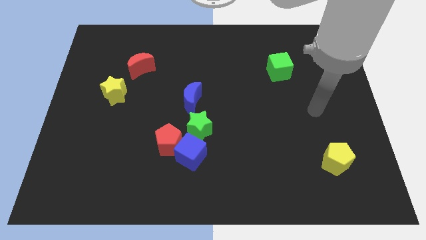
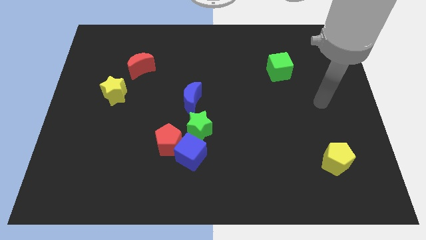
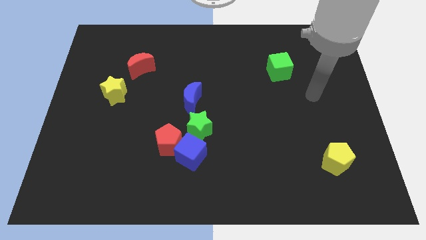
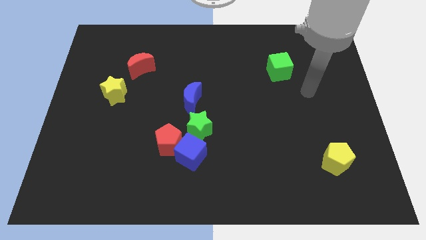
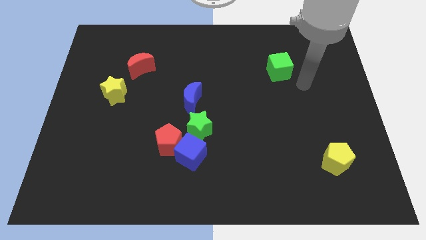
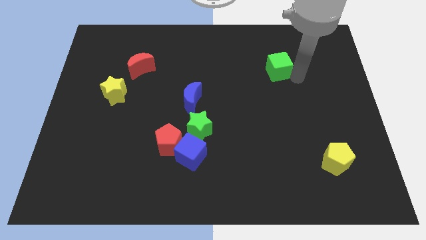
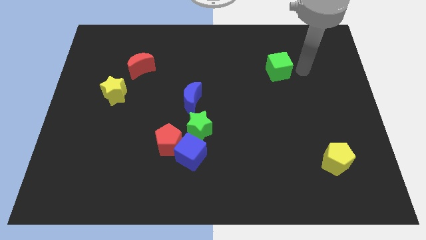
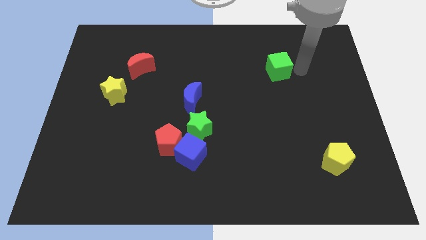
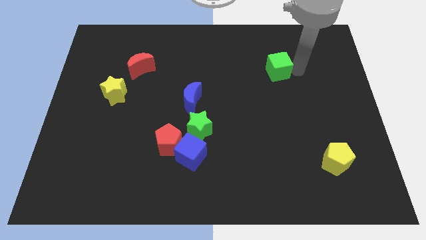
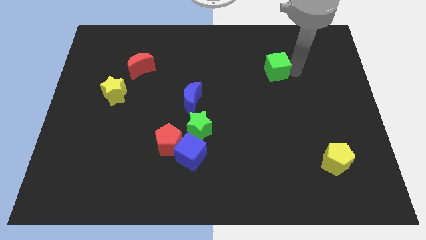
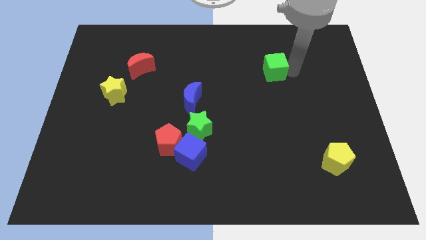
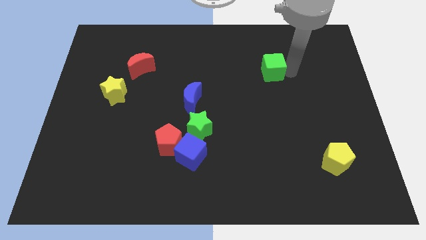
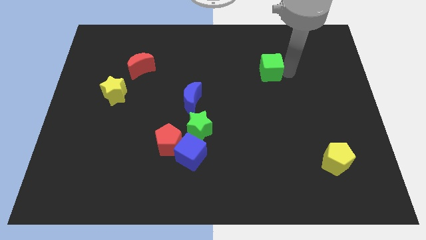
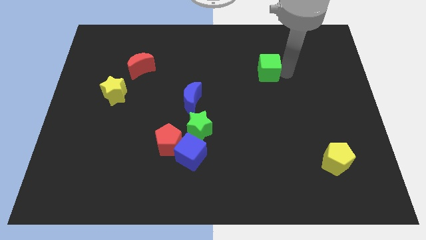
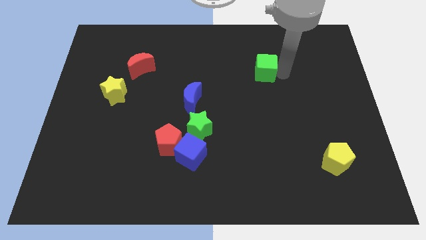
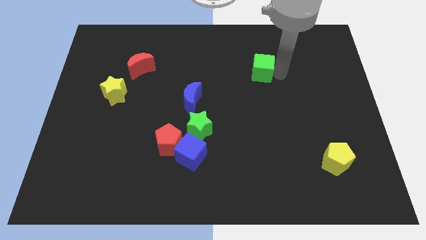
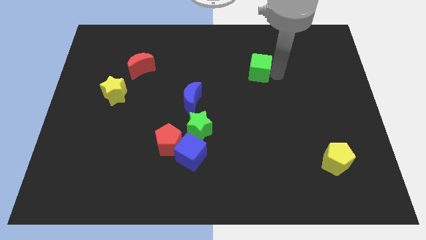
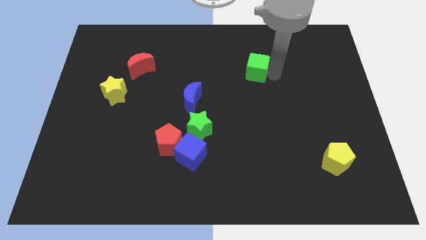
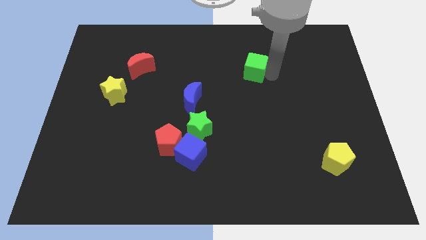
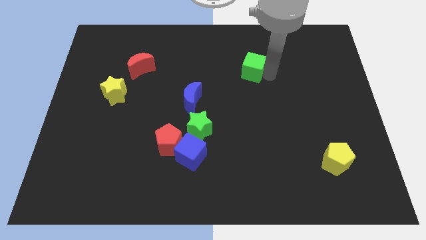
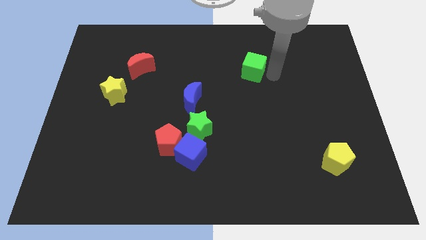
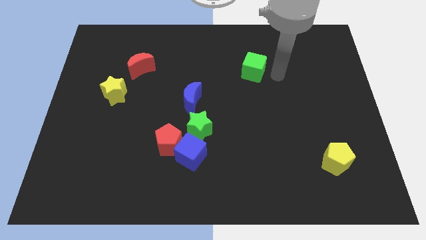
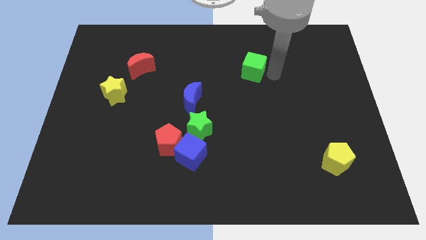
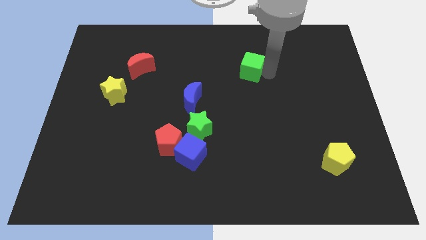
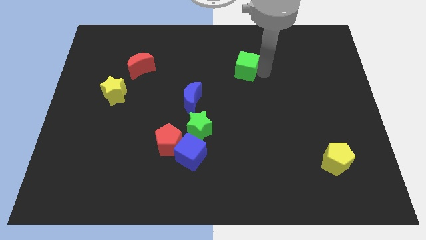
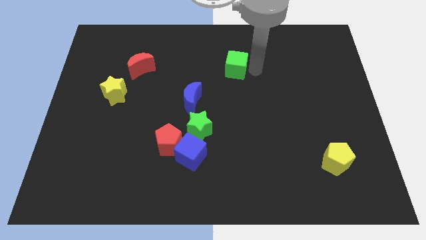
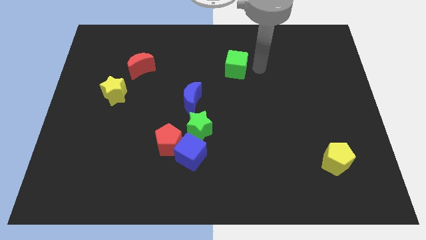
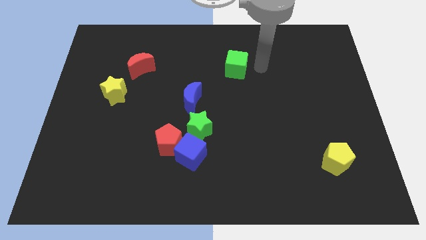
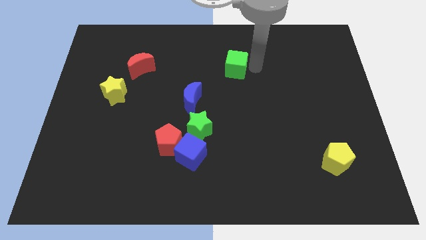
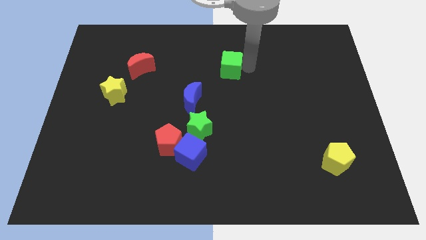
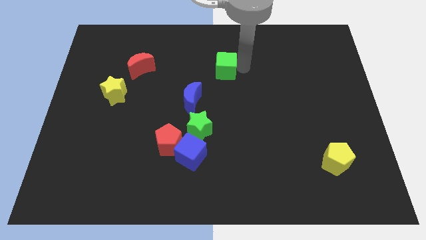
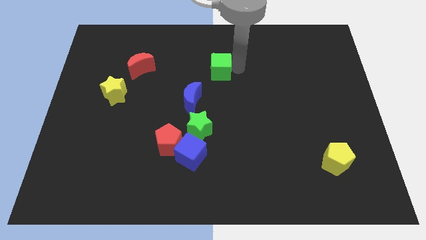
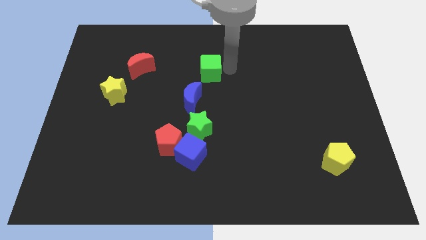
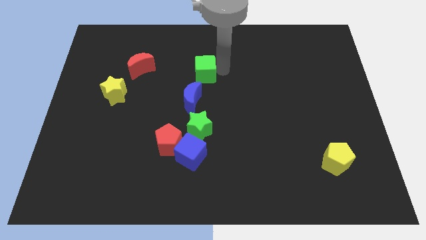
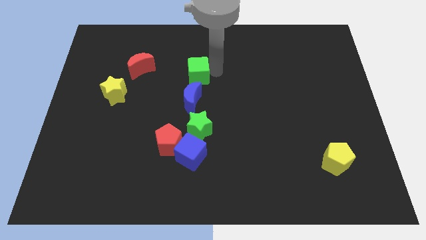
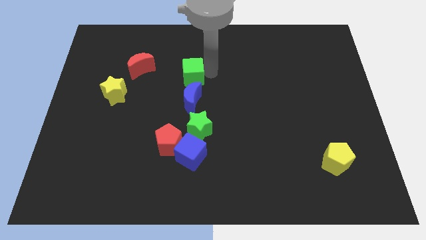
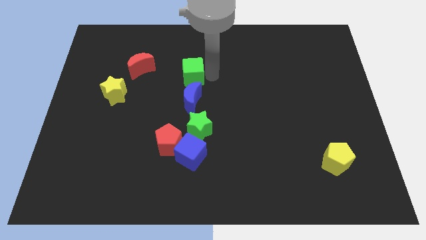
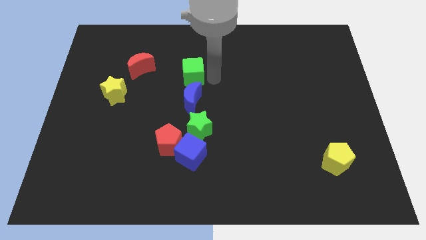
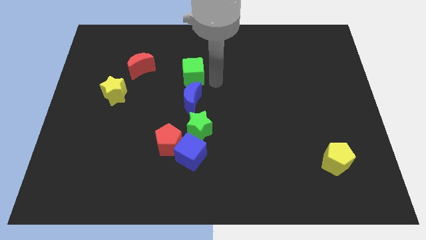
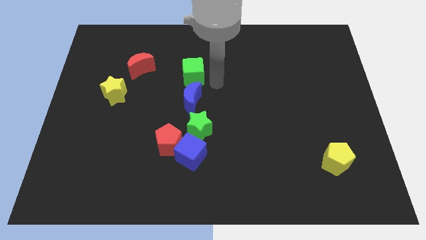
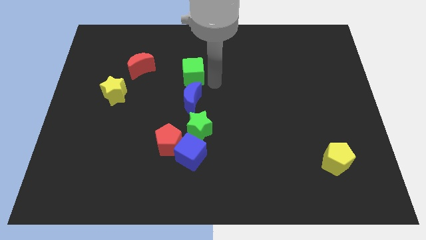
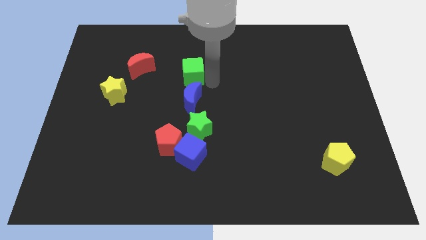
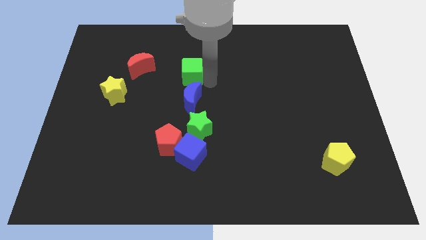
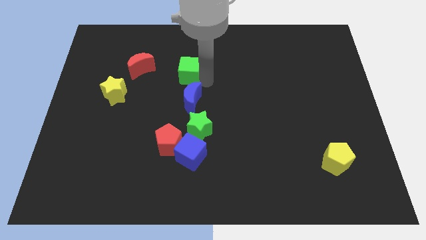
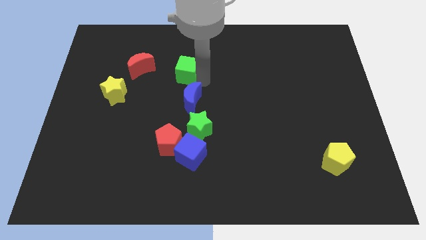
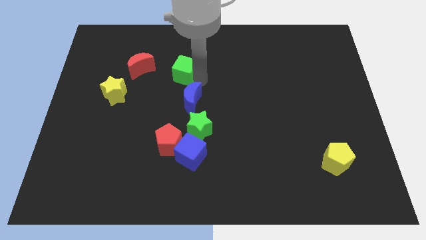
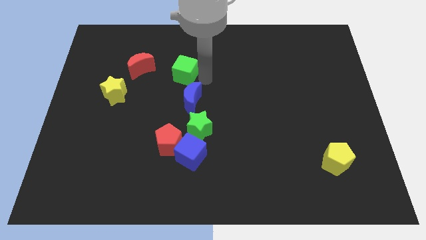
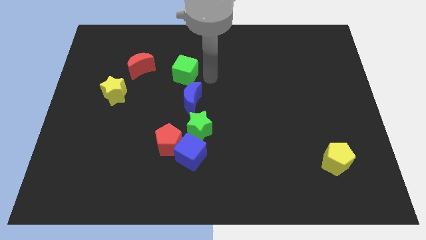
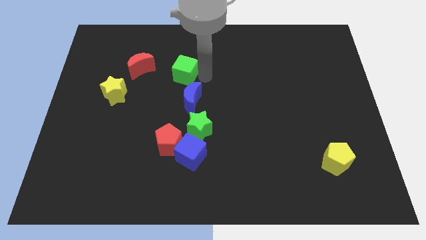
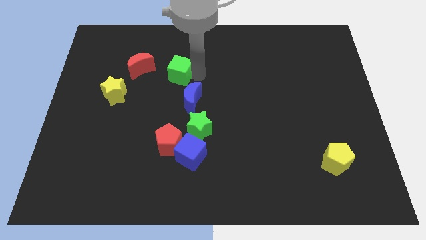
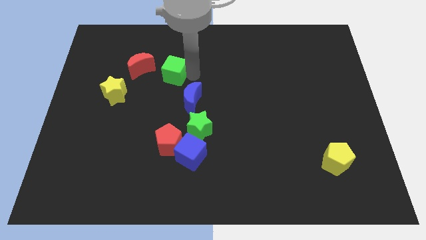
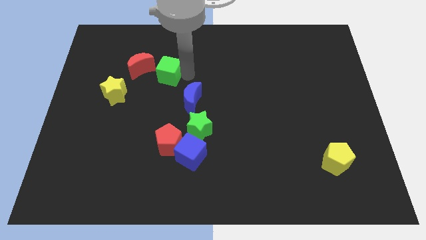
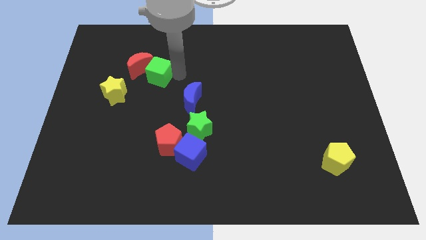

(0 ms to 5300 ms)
move the green cube to the red moon

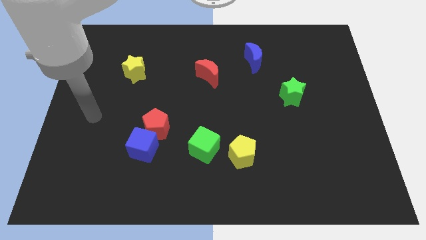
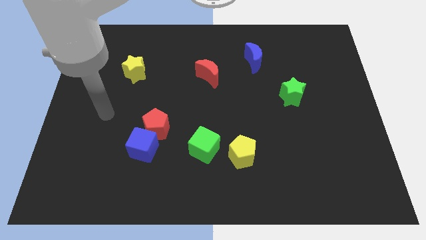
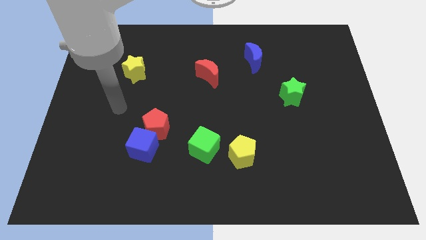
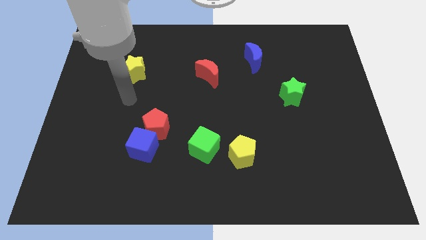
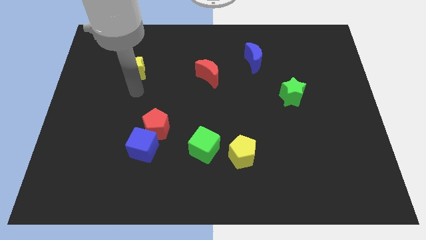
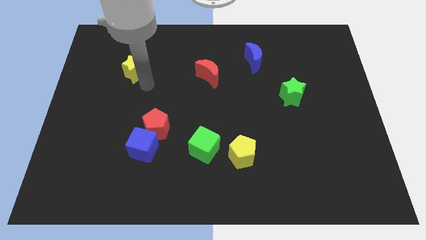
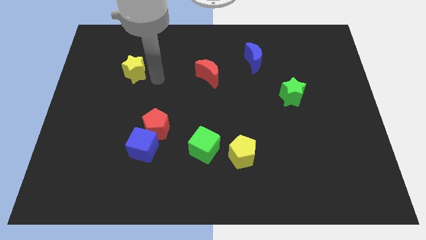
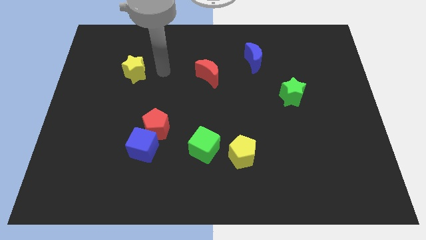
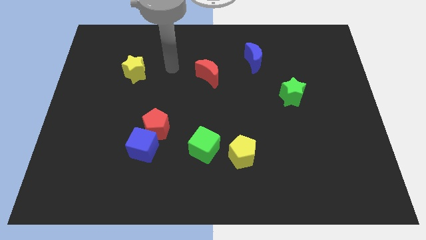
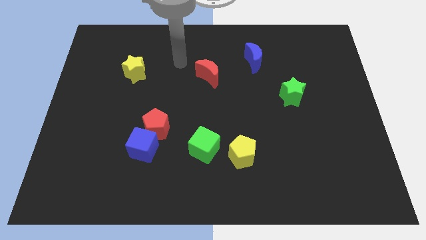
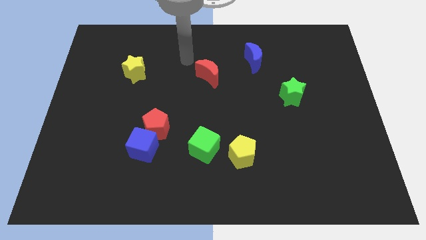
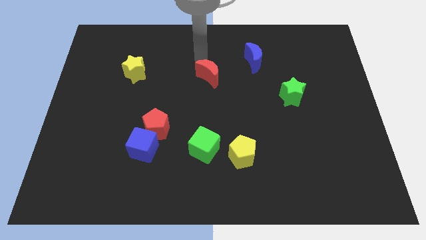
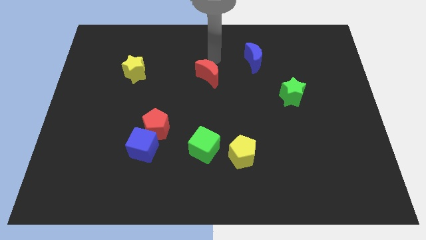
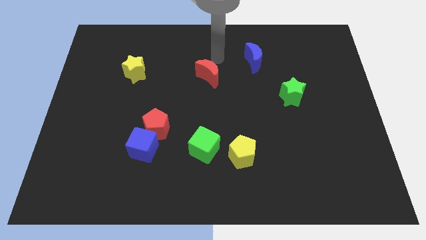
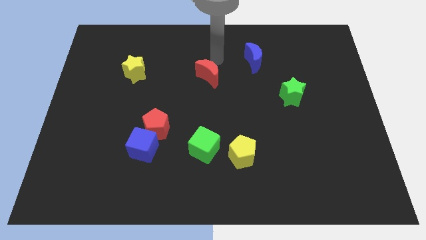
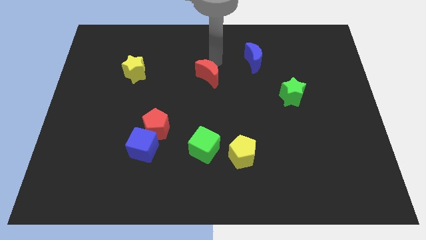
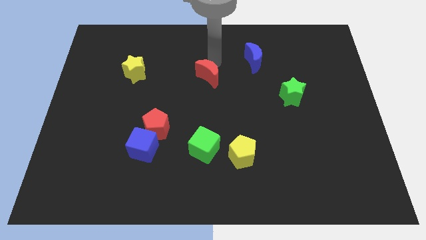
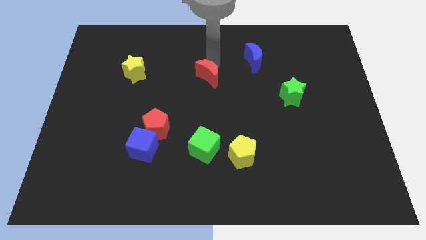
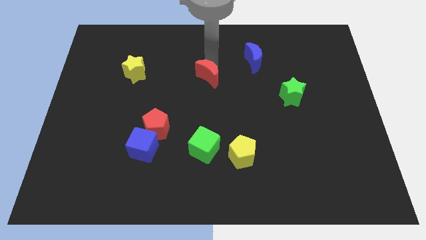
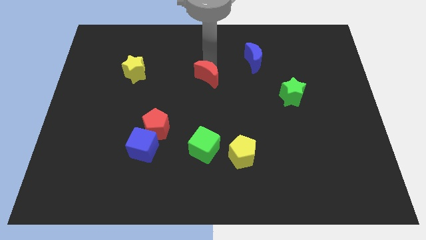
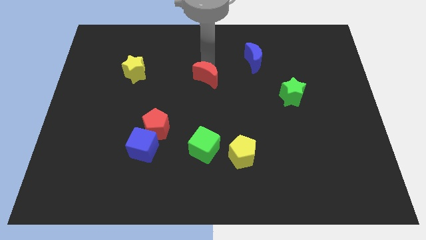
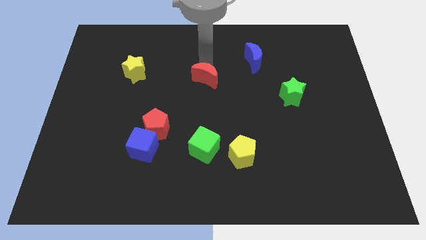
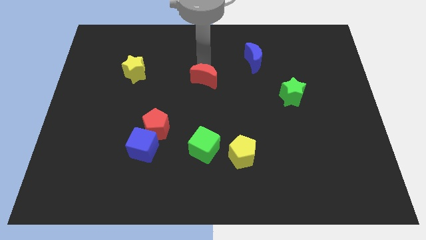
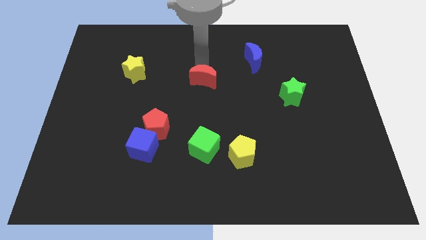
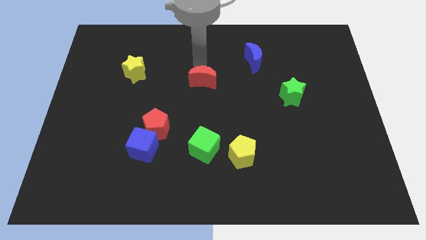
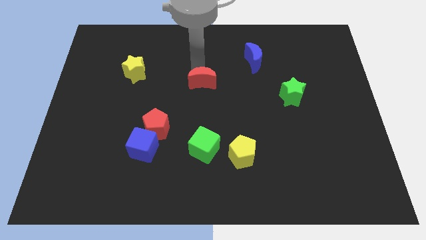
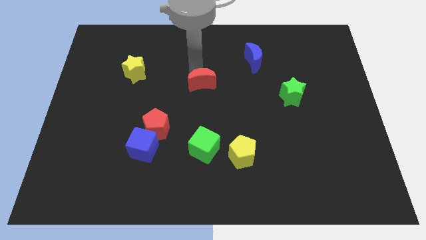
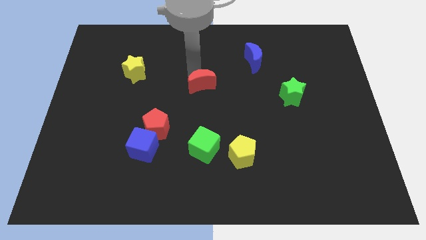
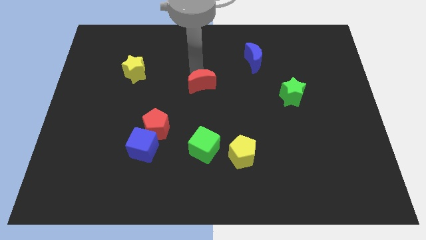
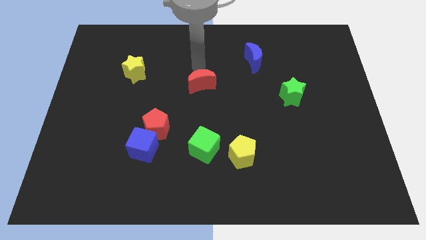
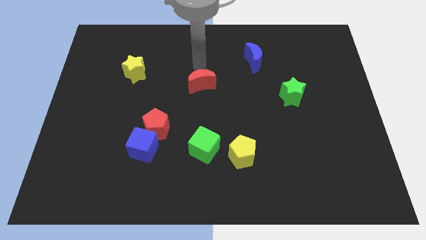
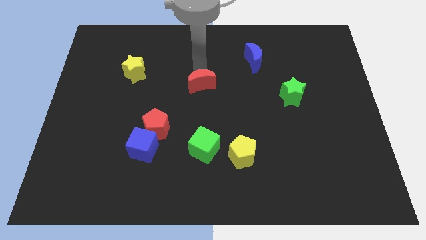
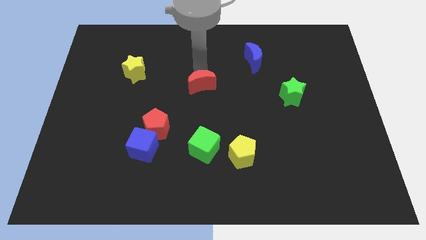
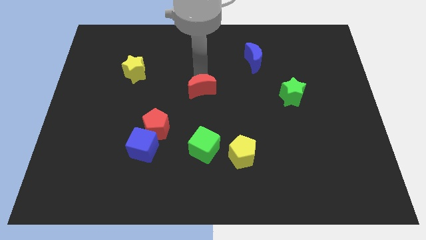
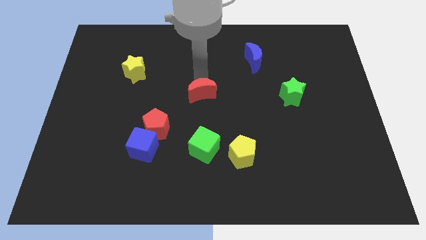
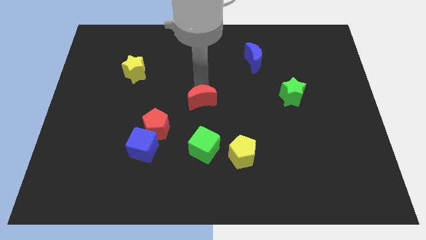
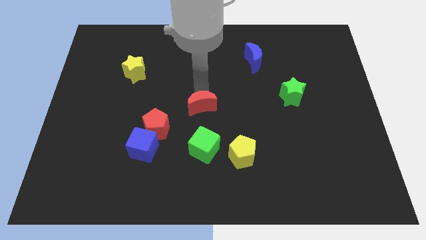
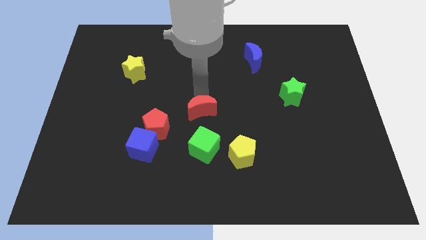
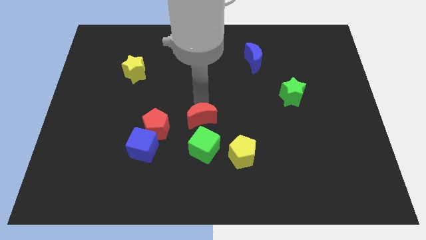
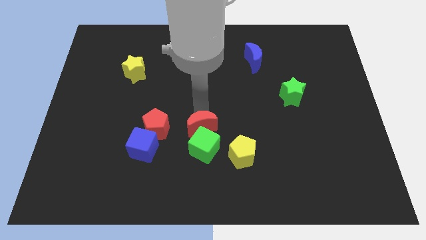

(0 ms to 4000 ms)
move the red moon to the green cube
